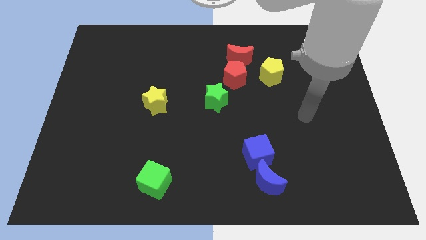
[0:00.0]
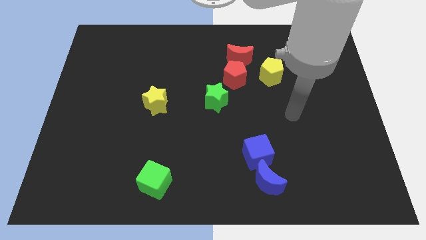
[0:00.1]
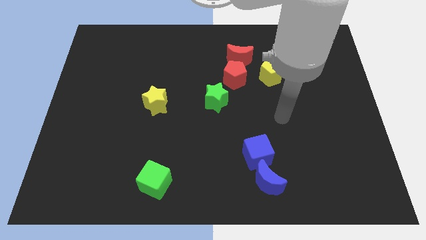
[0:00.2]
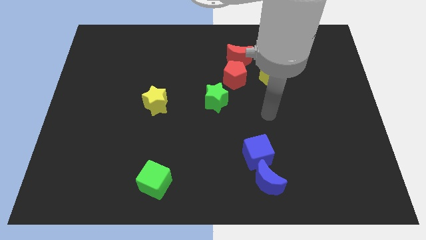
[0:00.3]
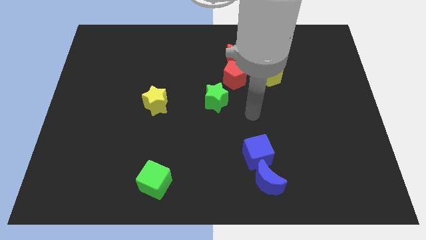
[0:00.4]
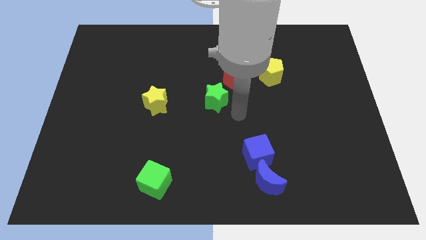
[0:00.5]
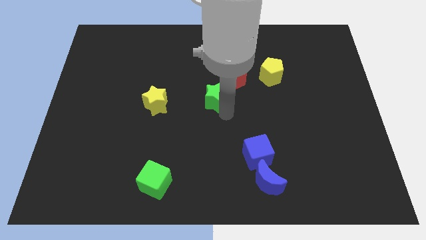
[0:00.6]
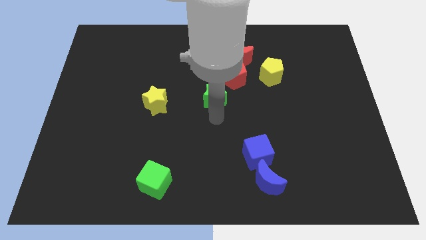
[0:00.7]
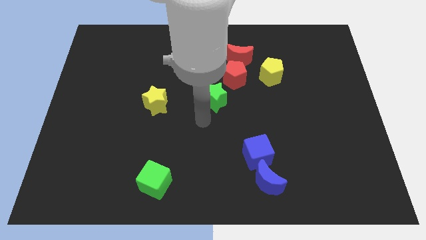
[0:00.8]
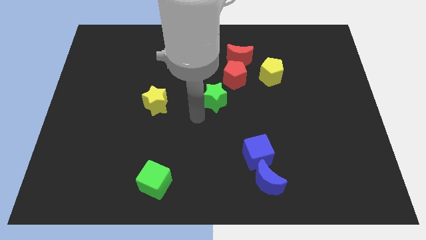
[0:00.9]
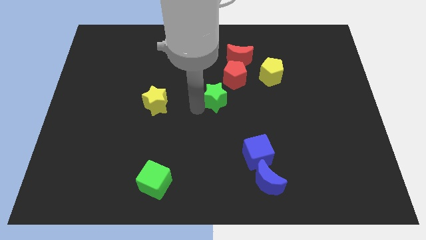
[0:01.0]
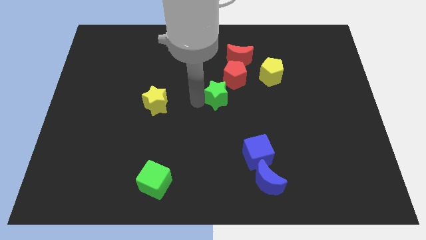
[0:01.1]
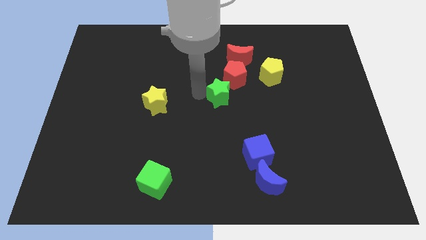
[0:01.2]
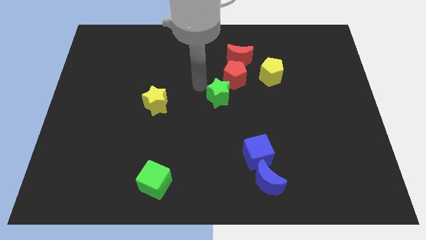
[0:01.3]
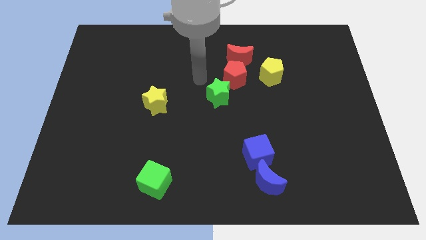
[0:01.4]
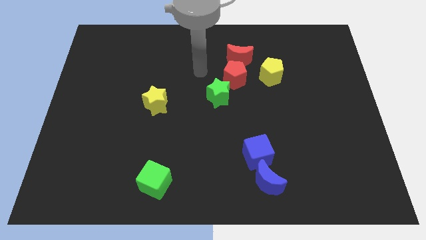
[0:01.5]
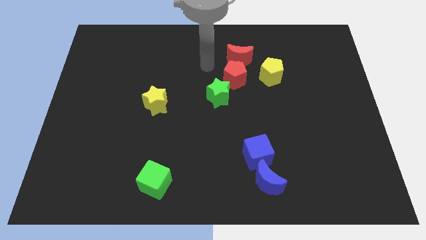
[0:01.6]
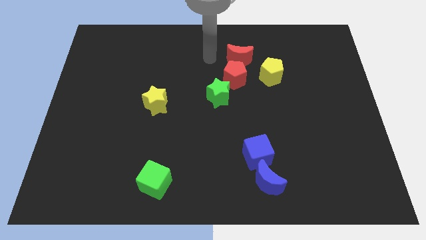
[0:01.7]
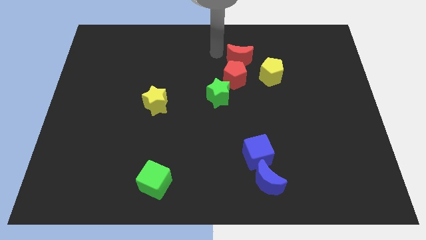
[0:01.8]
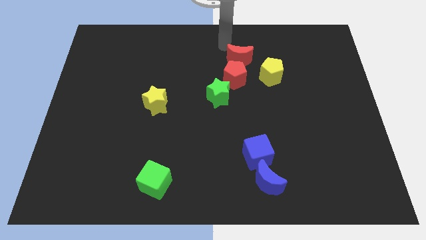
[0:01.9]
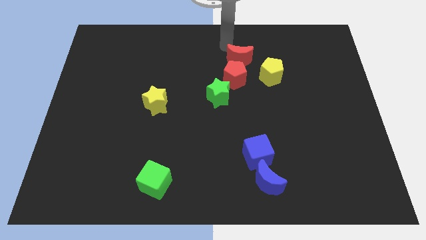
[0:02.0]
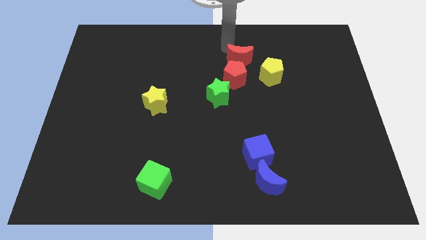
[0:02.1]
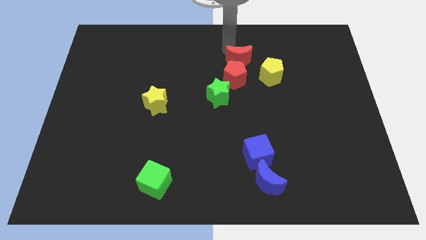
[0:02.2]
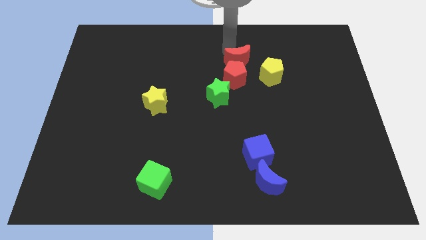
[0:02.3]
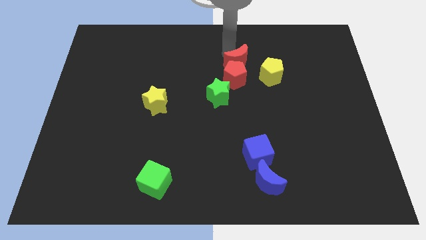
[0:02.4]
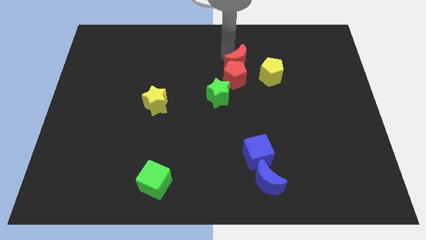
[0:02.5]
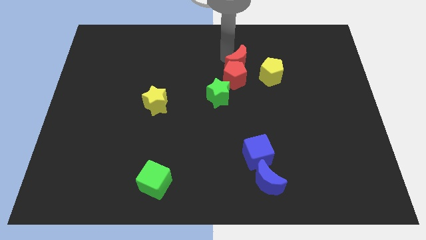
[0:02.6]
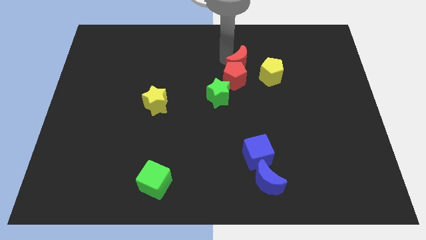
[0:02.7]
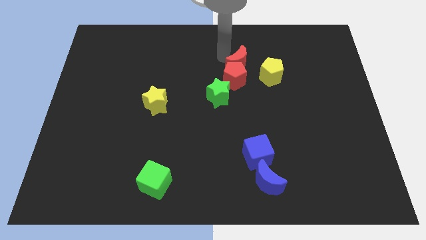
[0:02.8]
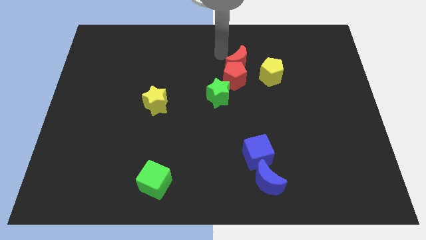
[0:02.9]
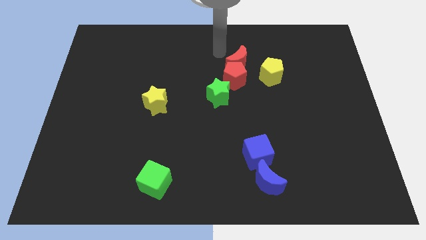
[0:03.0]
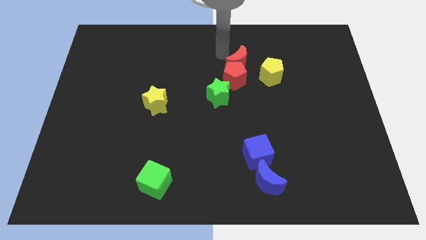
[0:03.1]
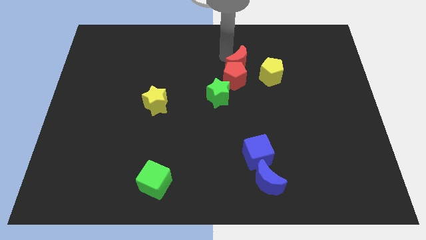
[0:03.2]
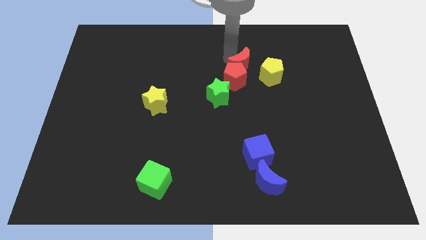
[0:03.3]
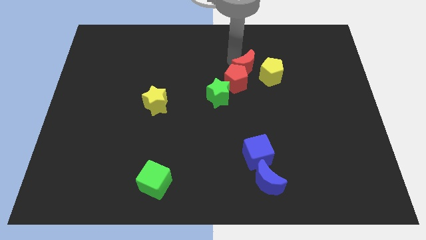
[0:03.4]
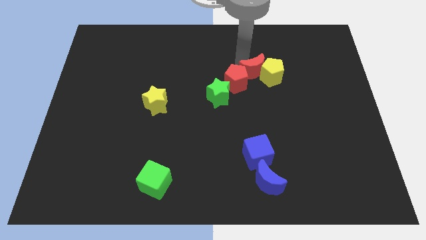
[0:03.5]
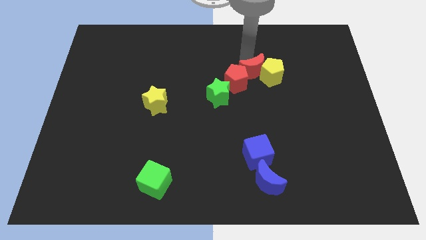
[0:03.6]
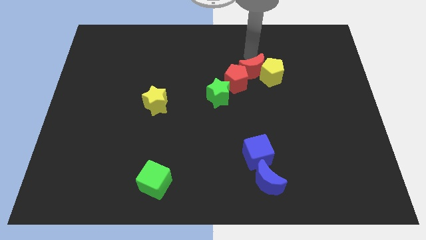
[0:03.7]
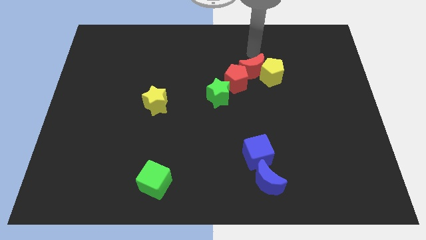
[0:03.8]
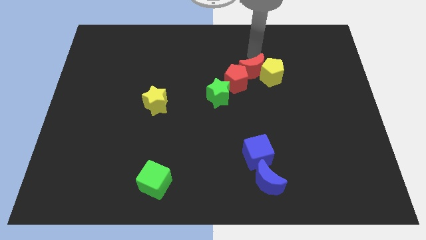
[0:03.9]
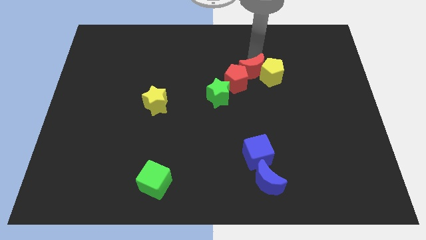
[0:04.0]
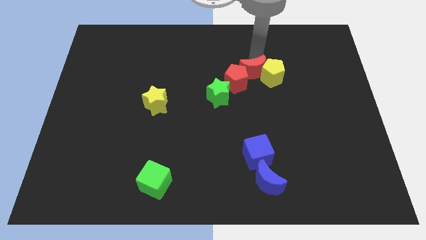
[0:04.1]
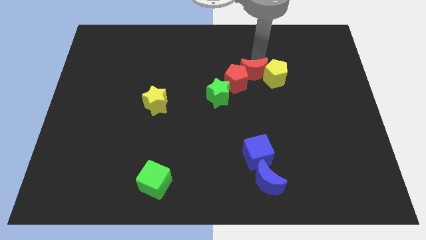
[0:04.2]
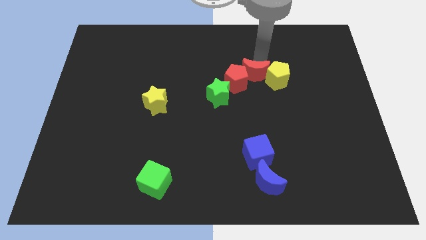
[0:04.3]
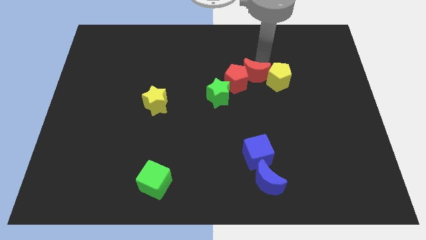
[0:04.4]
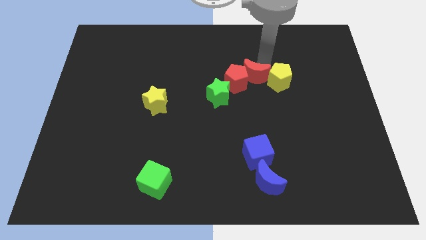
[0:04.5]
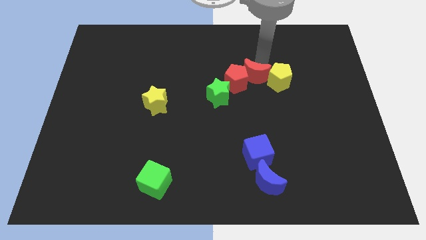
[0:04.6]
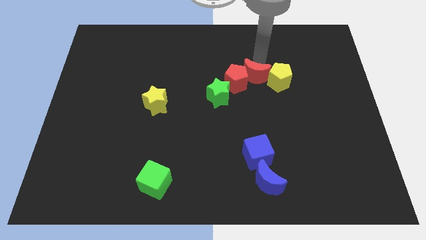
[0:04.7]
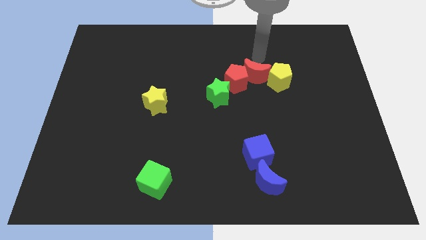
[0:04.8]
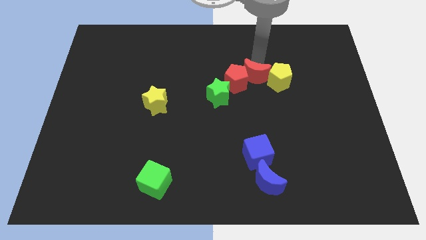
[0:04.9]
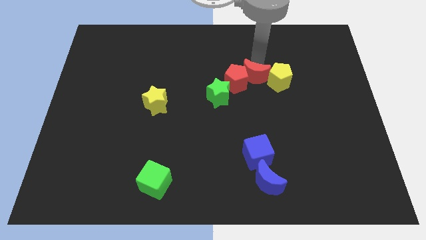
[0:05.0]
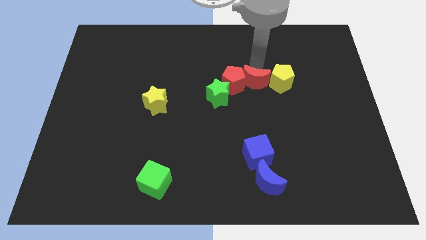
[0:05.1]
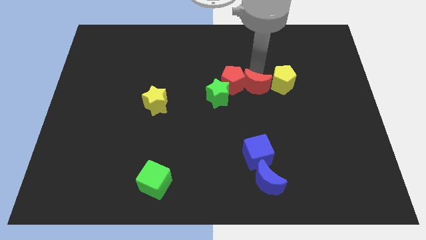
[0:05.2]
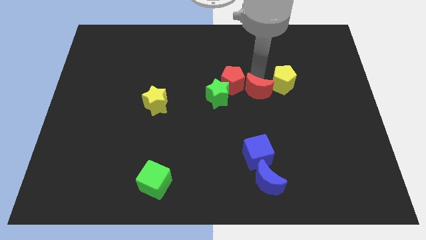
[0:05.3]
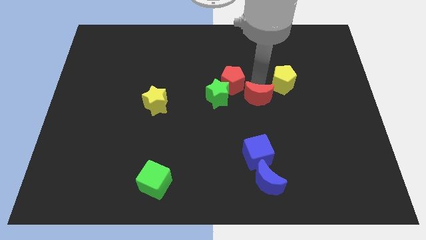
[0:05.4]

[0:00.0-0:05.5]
move the red moon to the top of the blue cube

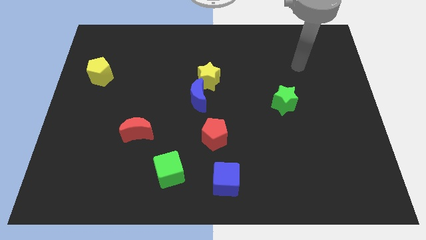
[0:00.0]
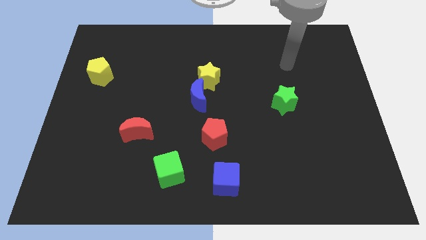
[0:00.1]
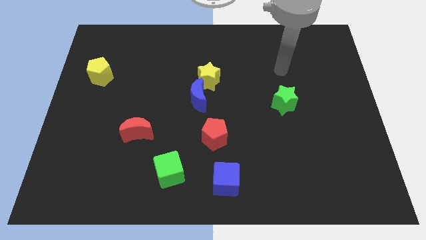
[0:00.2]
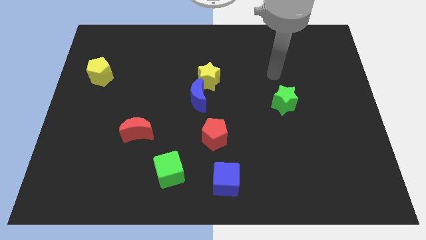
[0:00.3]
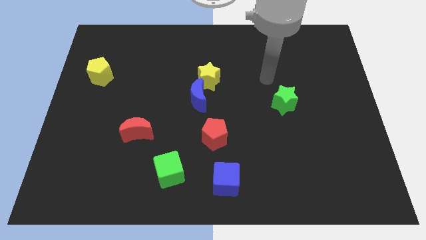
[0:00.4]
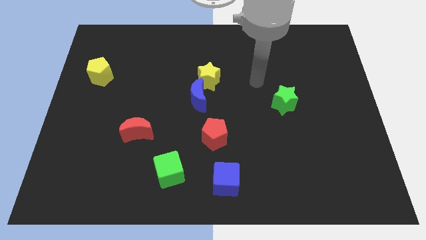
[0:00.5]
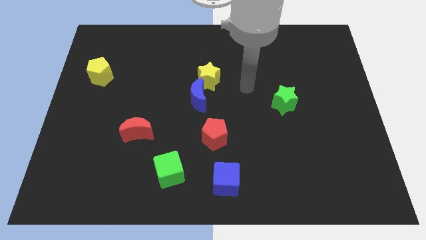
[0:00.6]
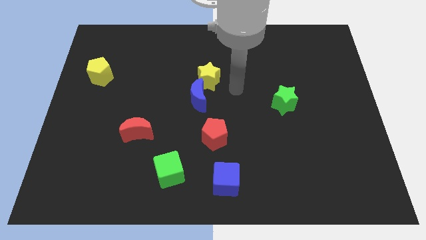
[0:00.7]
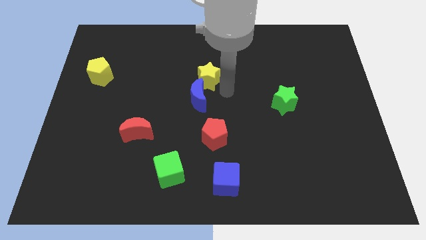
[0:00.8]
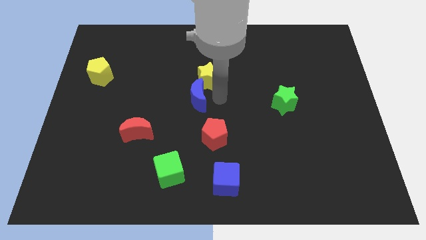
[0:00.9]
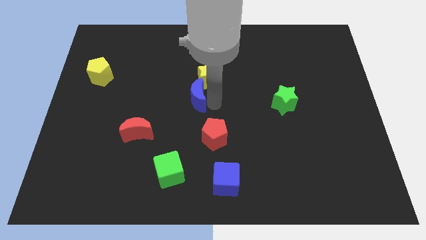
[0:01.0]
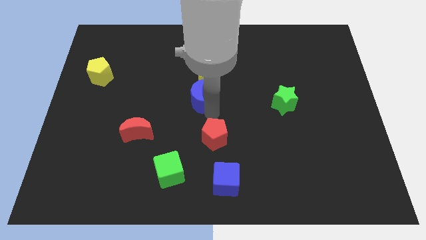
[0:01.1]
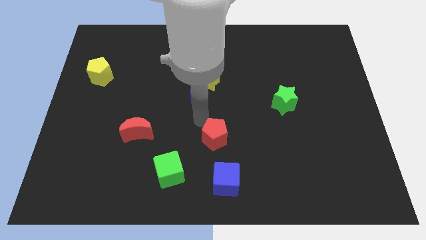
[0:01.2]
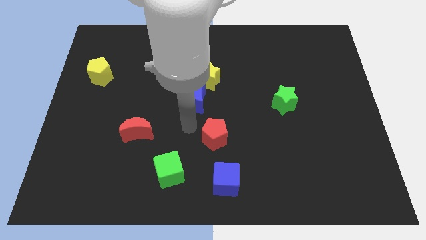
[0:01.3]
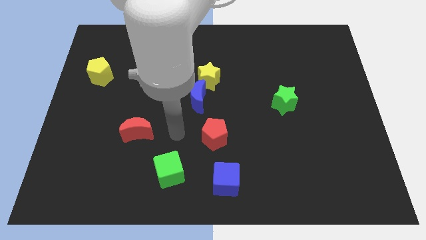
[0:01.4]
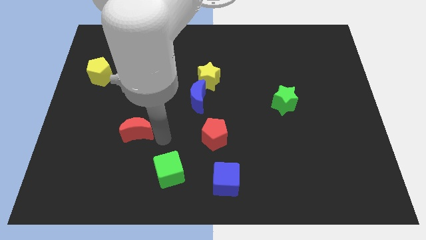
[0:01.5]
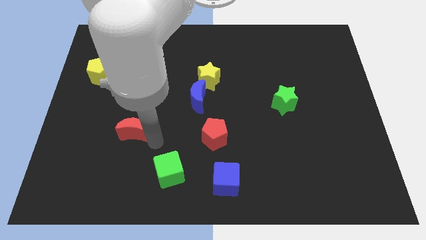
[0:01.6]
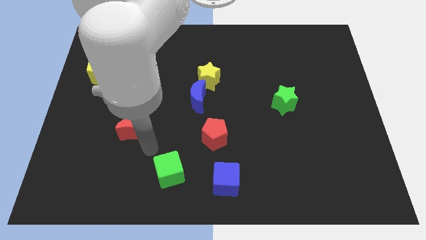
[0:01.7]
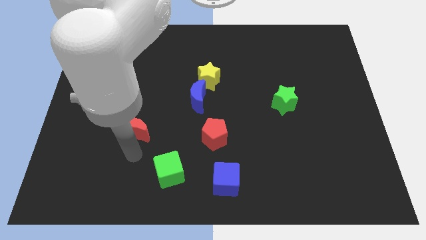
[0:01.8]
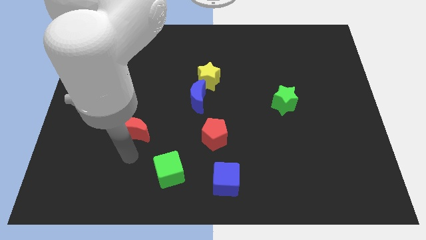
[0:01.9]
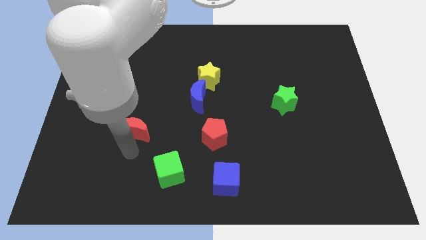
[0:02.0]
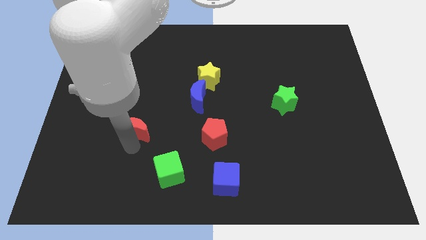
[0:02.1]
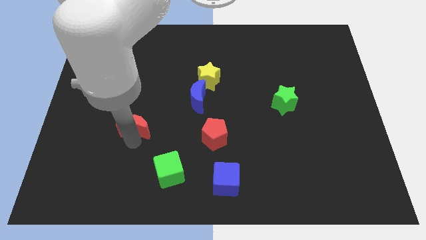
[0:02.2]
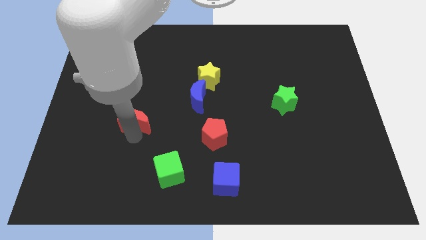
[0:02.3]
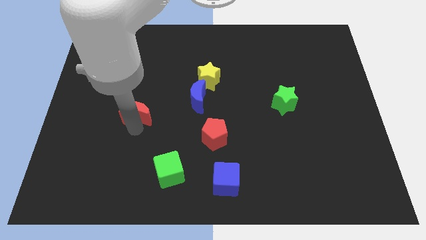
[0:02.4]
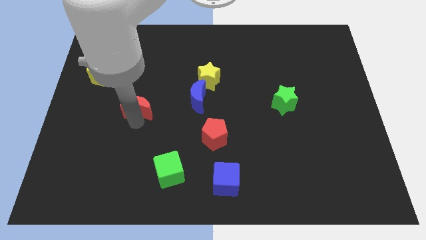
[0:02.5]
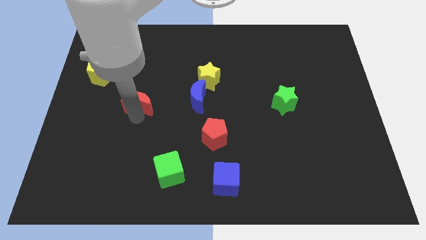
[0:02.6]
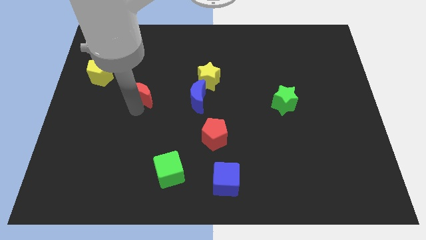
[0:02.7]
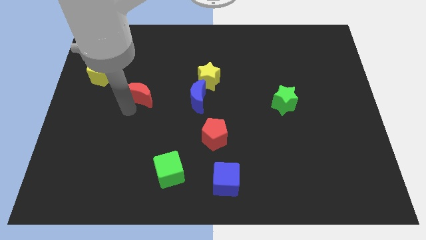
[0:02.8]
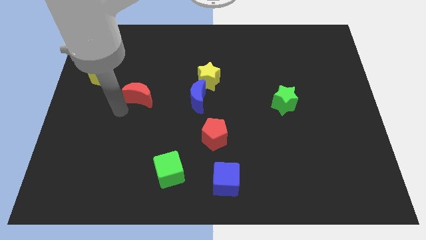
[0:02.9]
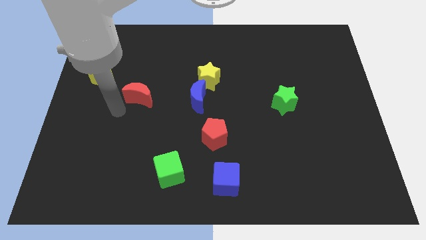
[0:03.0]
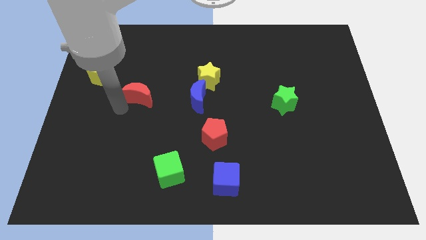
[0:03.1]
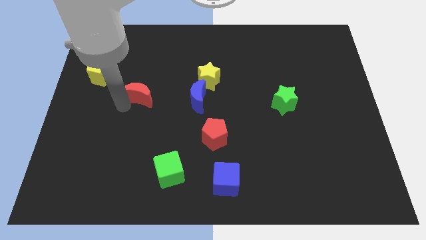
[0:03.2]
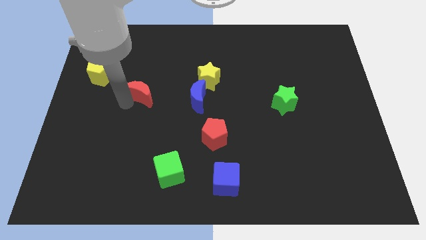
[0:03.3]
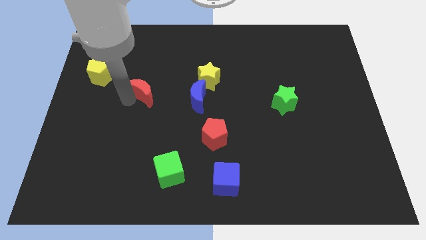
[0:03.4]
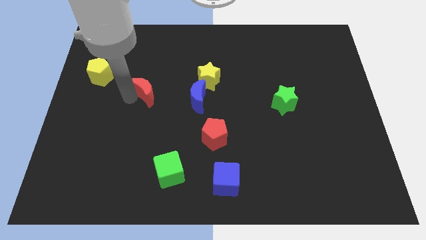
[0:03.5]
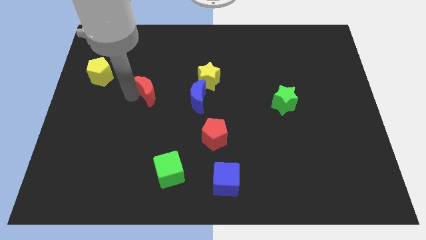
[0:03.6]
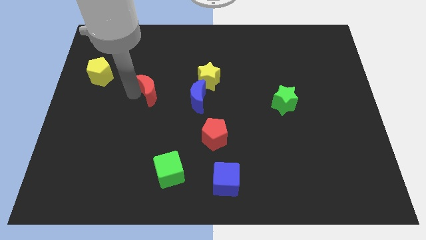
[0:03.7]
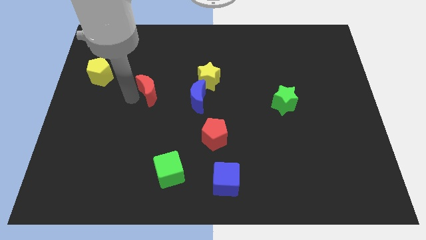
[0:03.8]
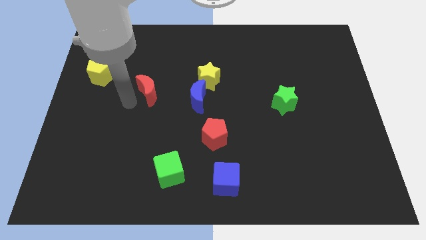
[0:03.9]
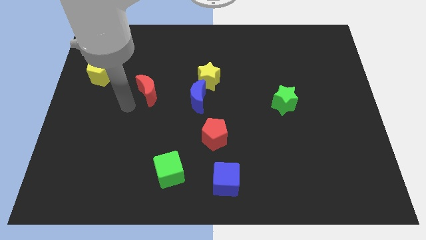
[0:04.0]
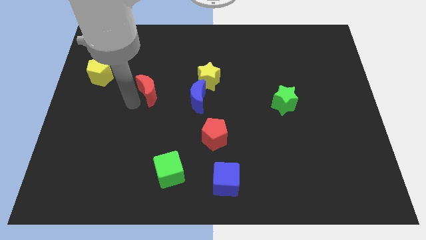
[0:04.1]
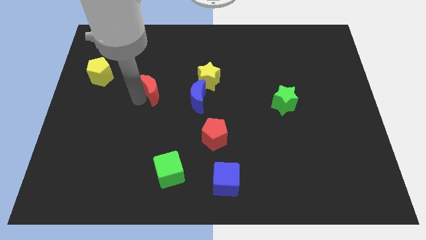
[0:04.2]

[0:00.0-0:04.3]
slide the red moon to the left of the yellow star
